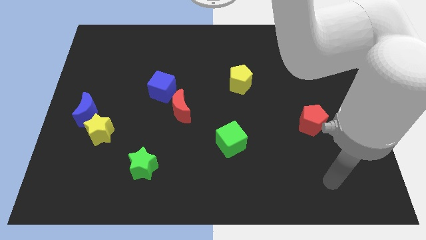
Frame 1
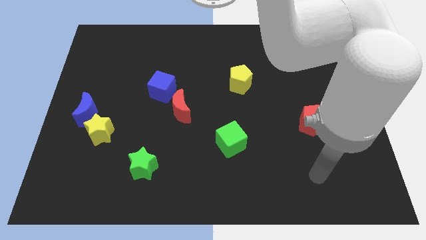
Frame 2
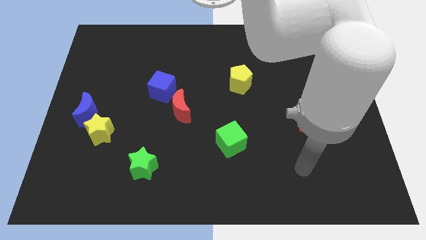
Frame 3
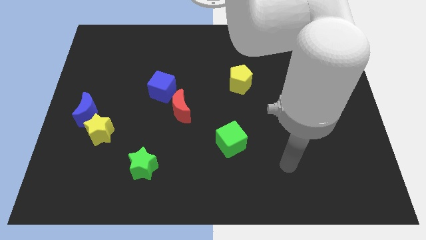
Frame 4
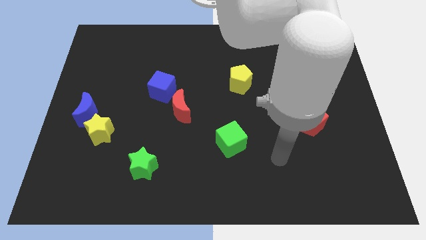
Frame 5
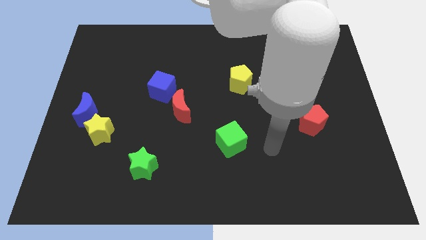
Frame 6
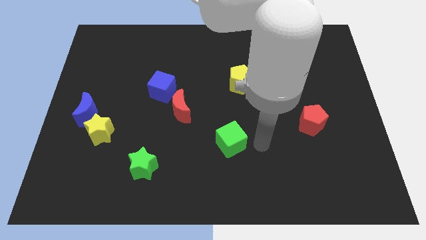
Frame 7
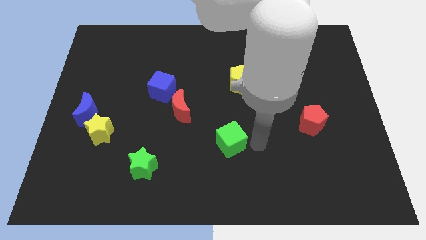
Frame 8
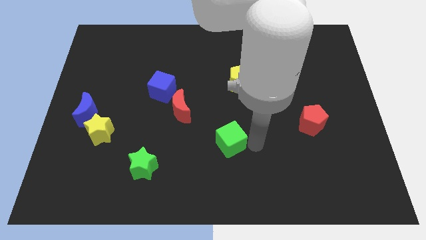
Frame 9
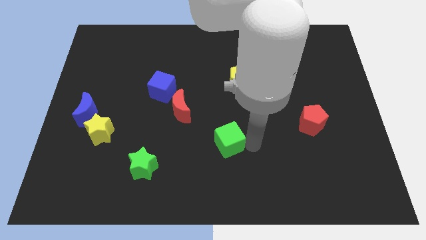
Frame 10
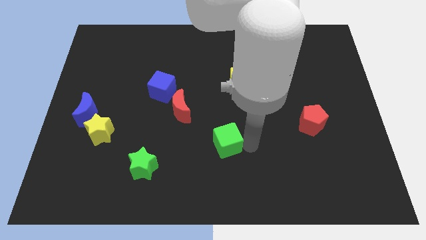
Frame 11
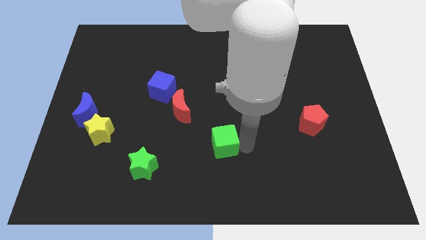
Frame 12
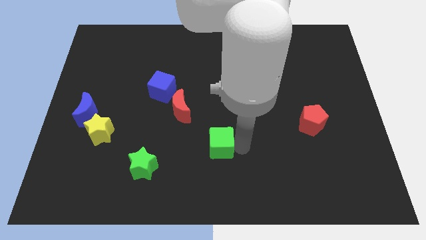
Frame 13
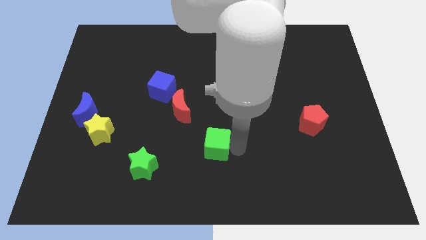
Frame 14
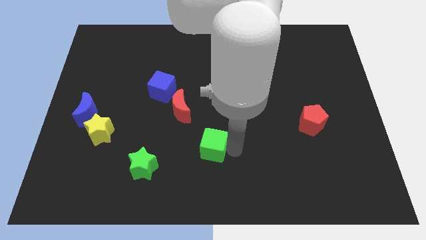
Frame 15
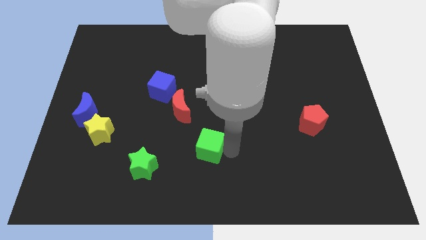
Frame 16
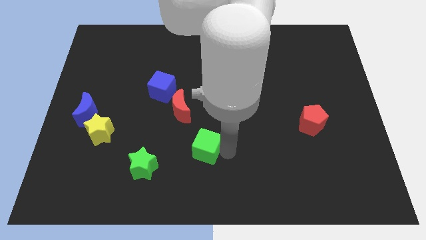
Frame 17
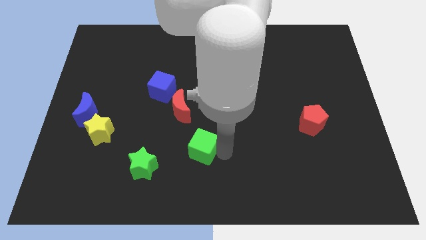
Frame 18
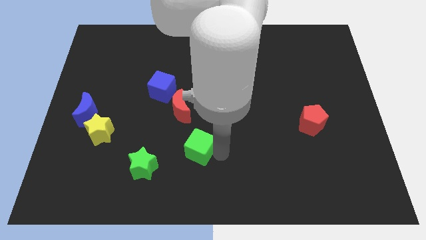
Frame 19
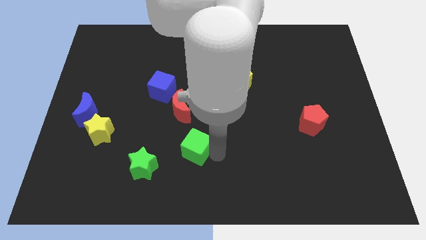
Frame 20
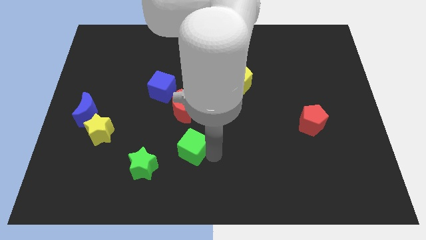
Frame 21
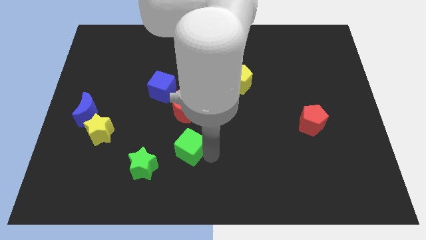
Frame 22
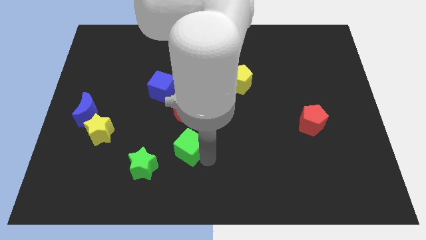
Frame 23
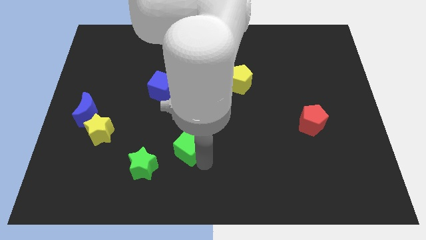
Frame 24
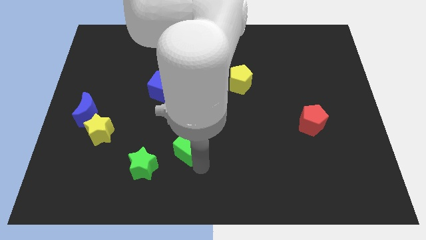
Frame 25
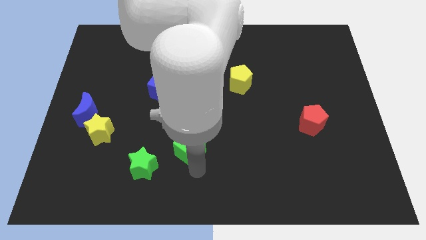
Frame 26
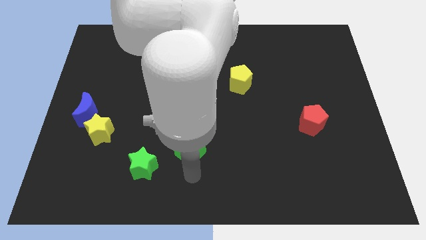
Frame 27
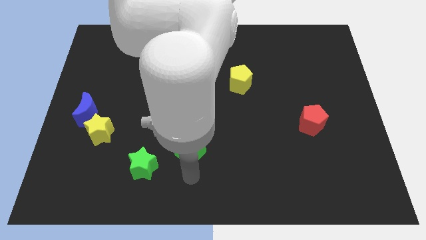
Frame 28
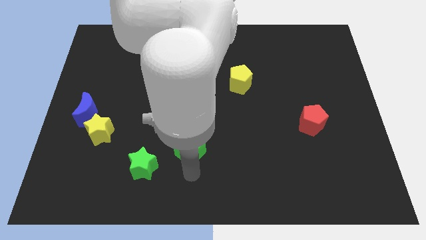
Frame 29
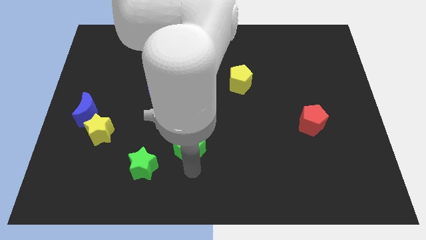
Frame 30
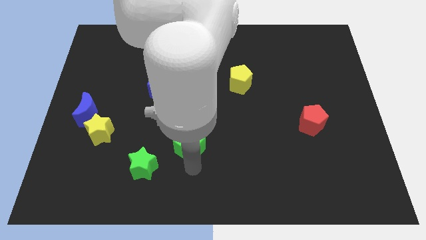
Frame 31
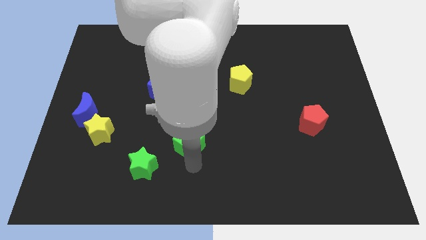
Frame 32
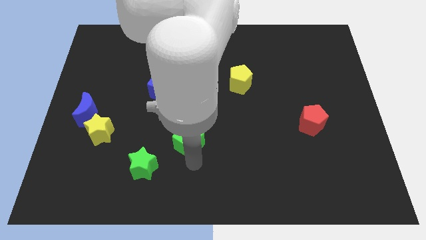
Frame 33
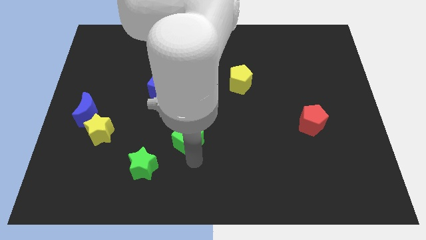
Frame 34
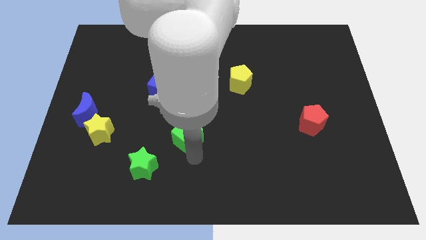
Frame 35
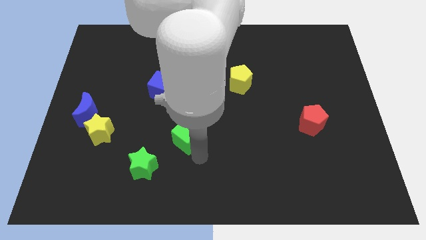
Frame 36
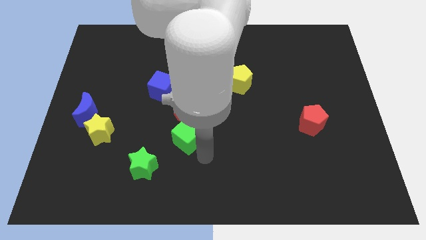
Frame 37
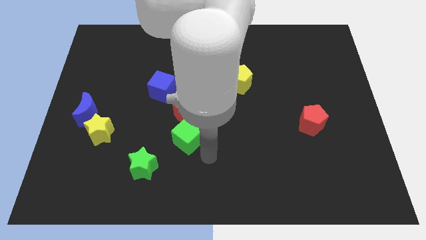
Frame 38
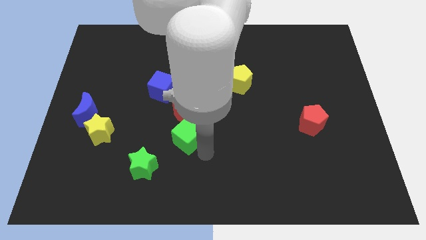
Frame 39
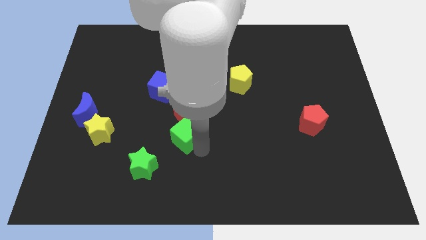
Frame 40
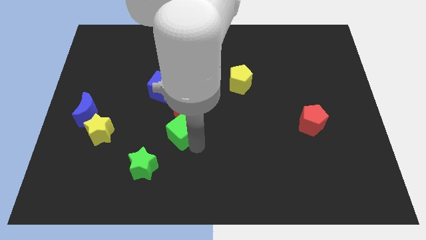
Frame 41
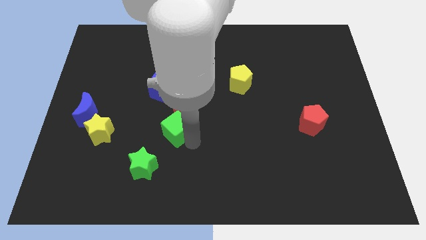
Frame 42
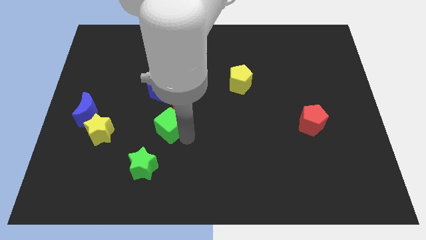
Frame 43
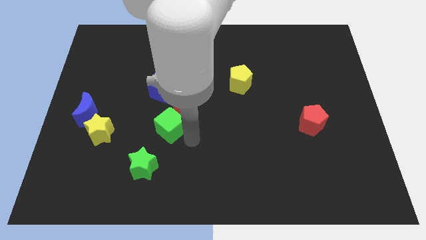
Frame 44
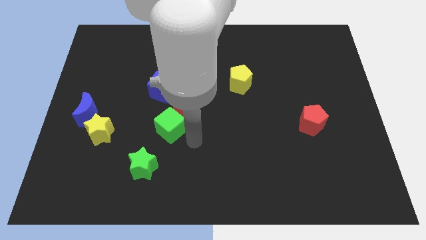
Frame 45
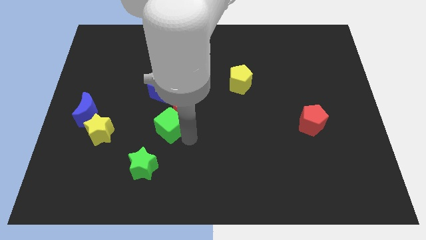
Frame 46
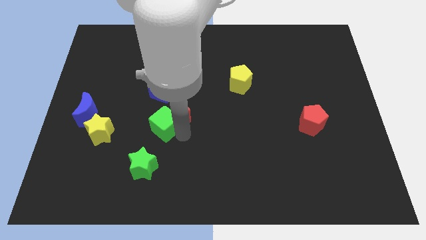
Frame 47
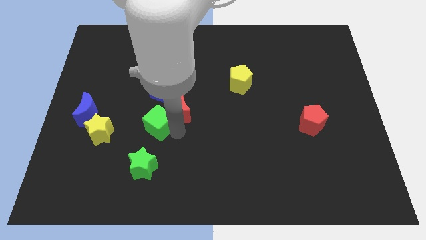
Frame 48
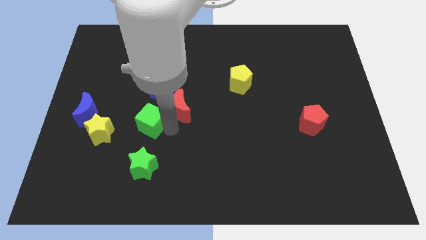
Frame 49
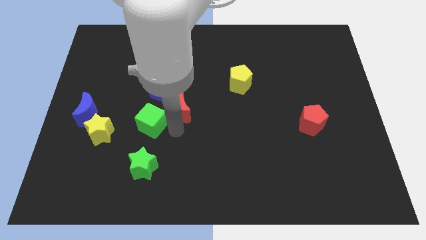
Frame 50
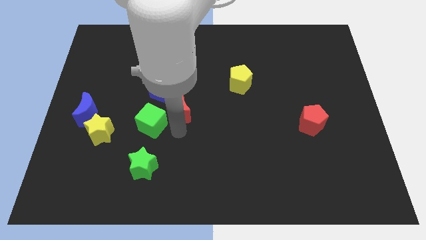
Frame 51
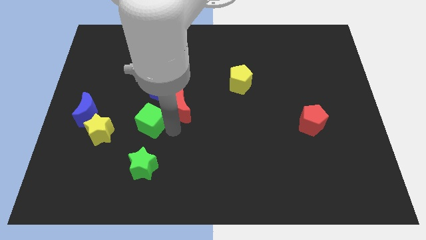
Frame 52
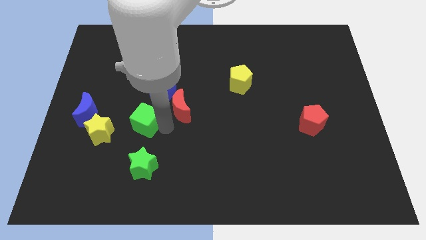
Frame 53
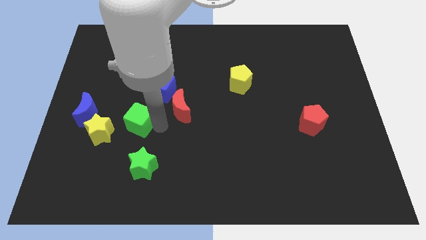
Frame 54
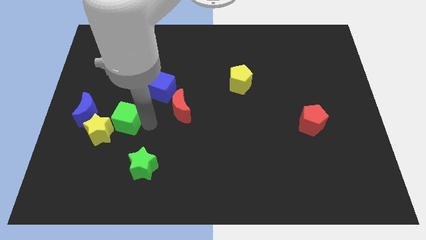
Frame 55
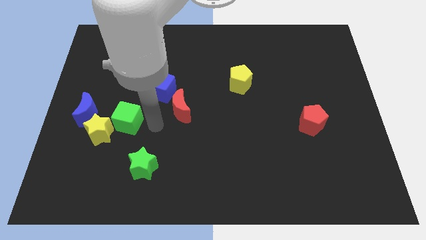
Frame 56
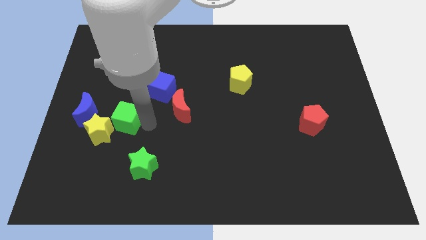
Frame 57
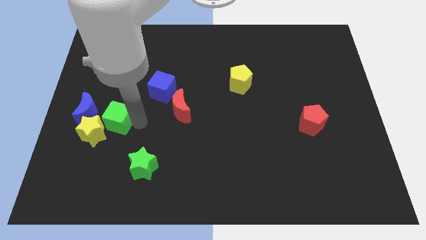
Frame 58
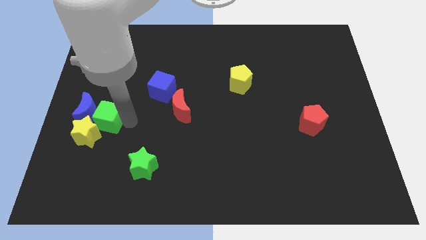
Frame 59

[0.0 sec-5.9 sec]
slide the green cube close to the blue moon

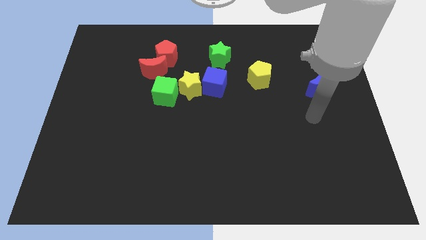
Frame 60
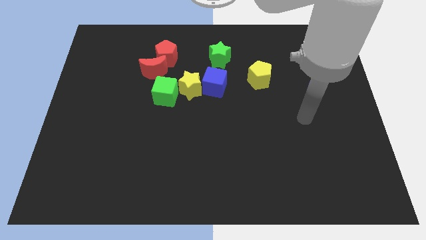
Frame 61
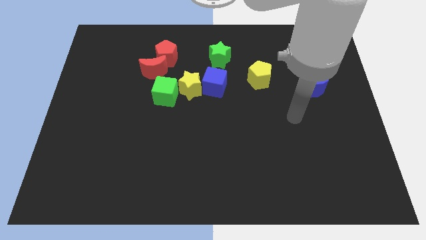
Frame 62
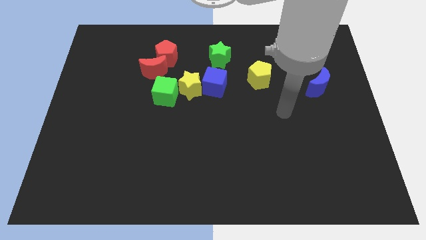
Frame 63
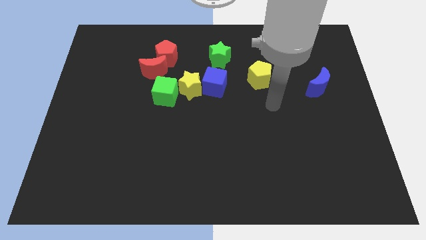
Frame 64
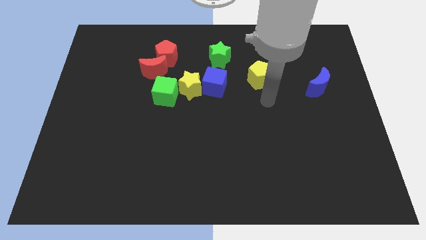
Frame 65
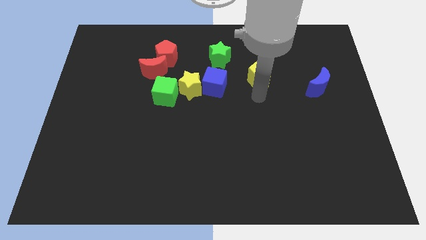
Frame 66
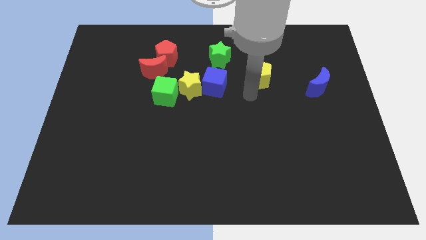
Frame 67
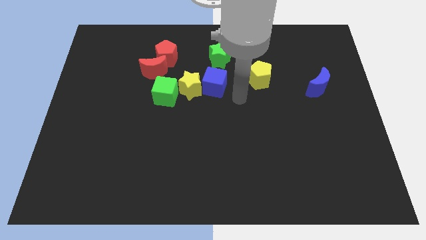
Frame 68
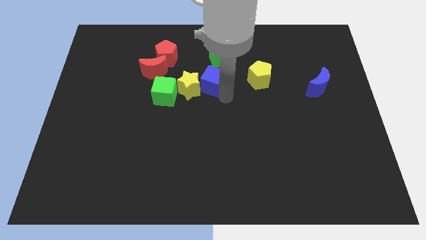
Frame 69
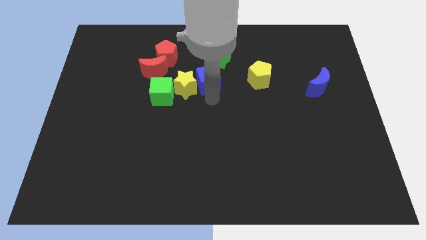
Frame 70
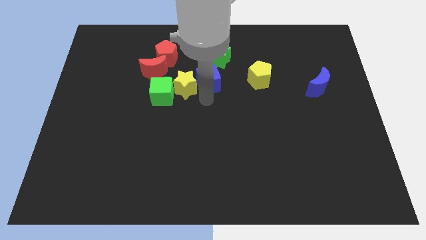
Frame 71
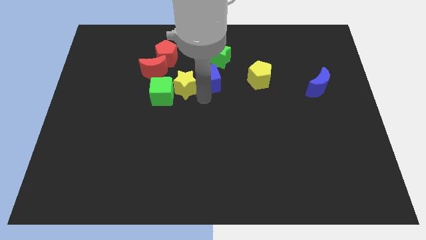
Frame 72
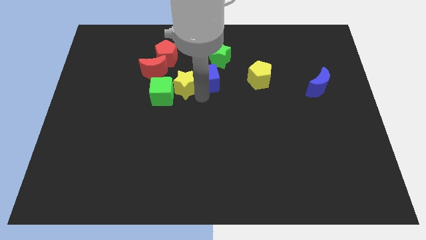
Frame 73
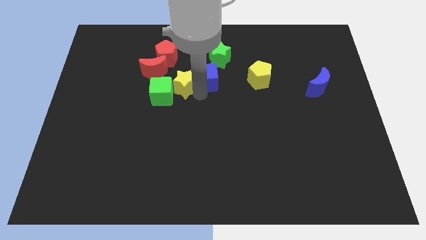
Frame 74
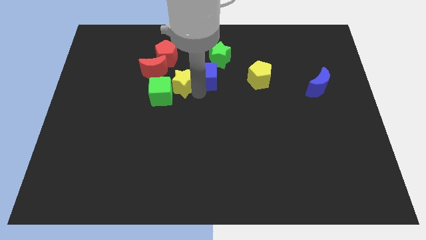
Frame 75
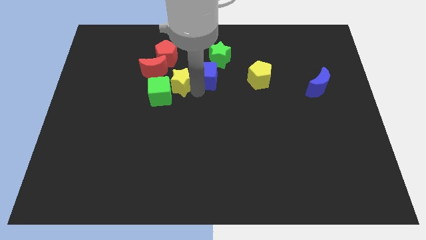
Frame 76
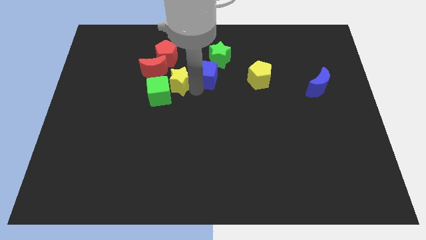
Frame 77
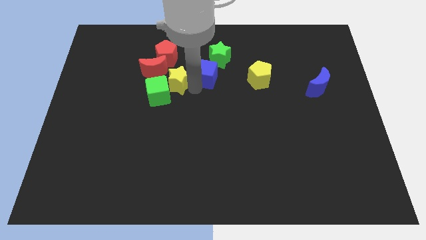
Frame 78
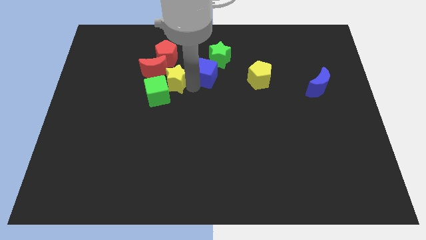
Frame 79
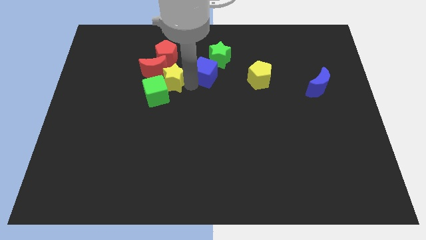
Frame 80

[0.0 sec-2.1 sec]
slide the yellow star towards the red moon
